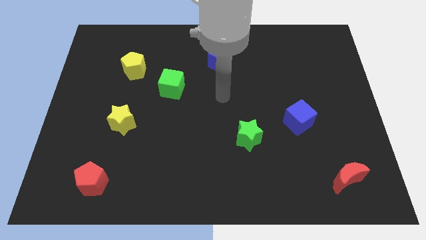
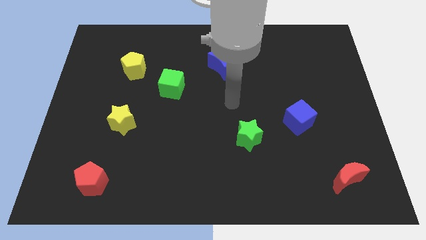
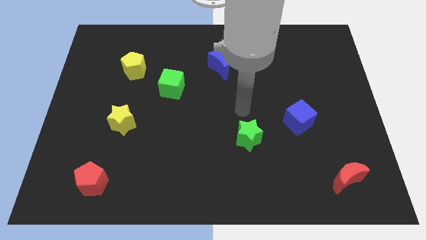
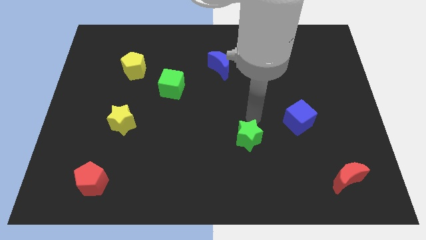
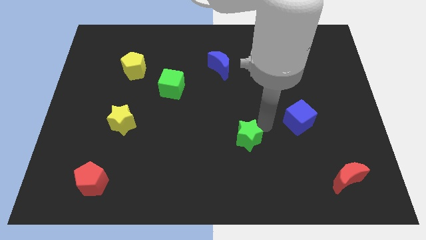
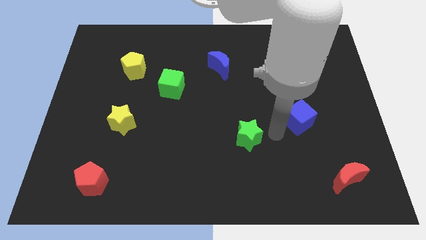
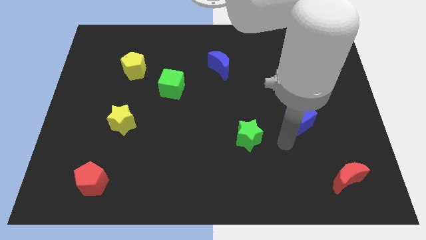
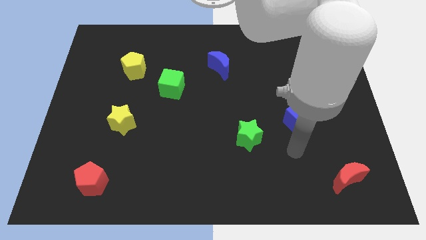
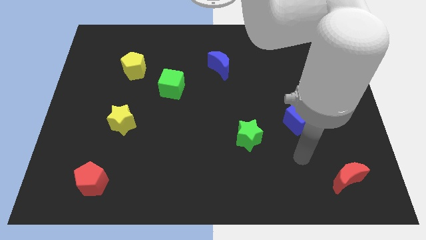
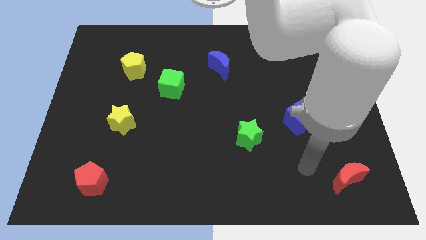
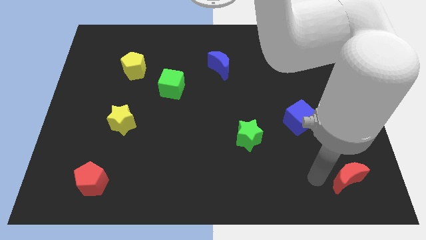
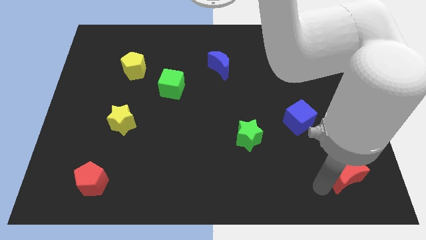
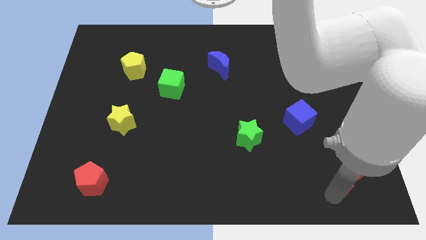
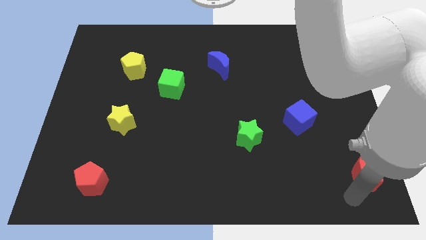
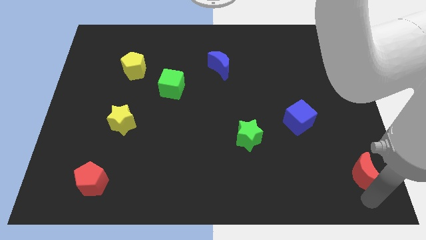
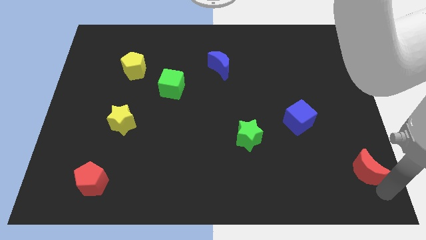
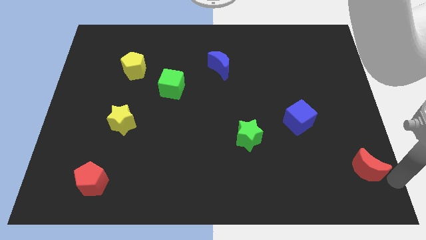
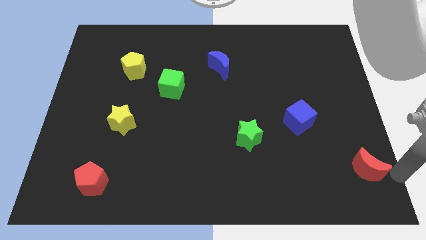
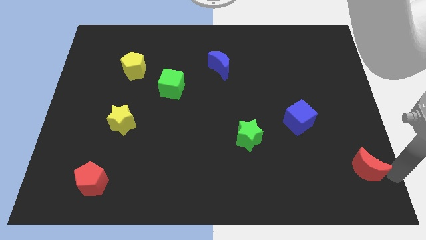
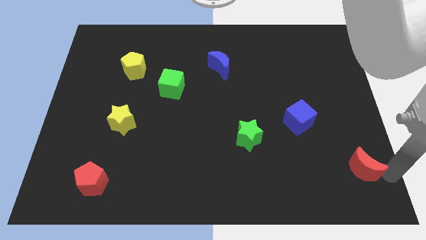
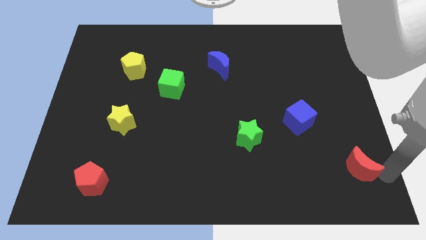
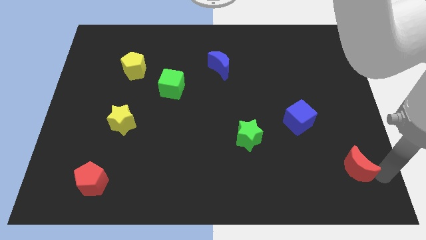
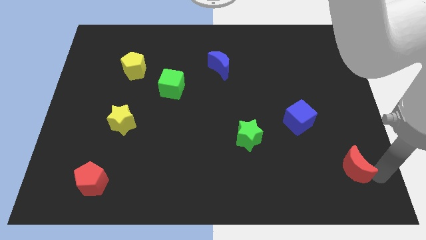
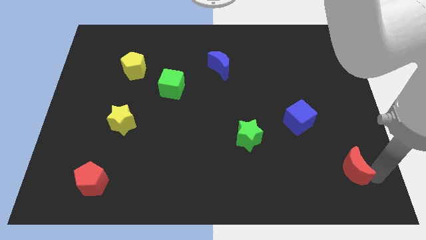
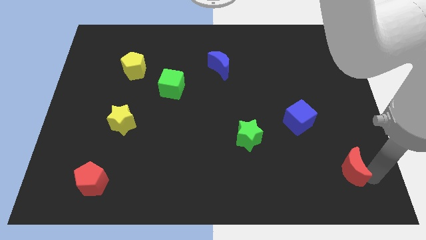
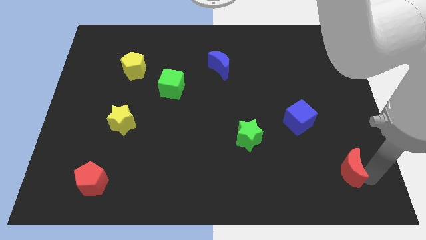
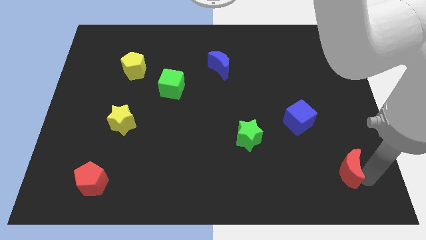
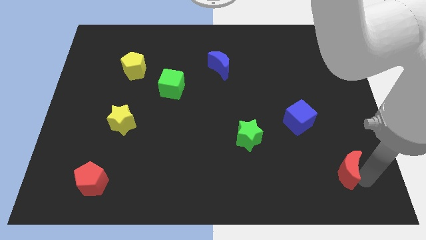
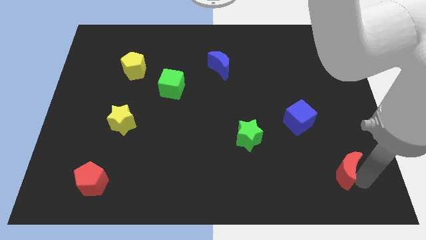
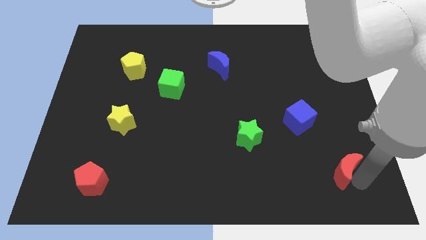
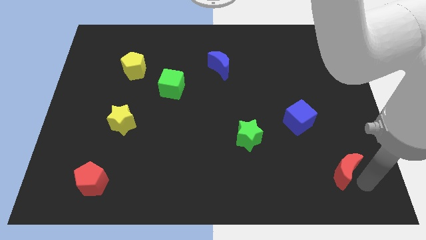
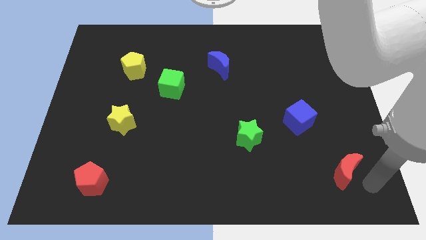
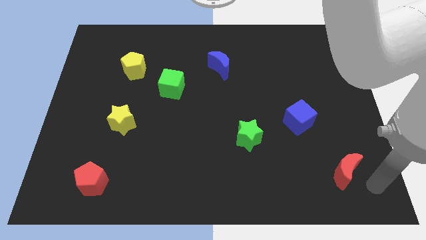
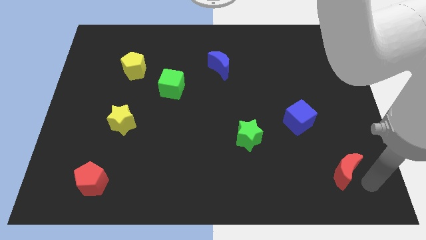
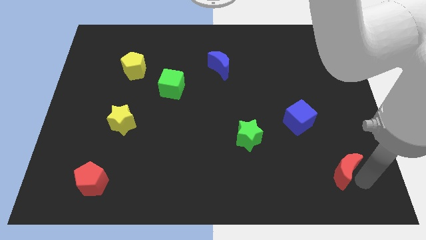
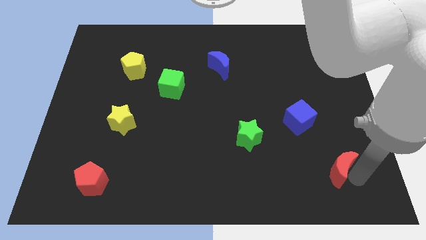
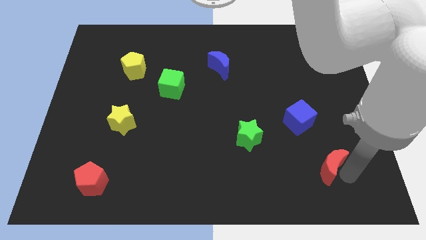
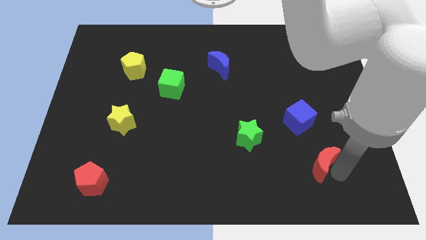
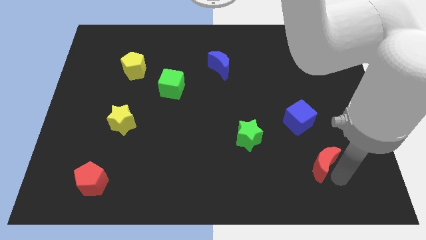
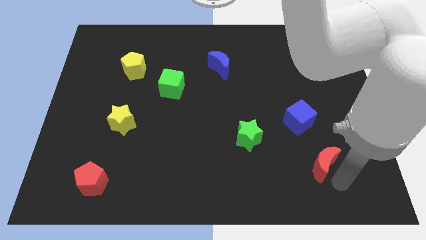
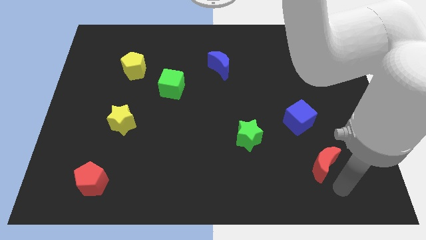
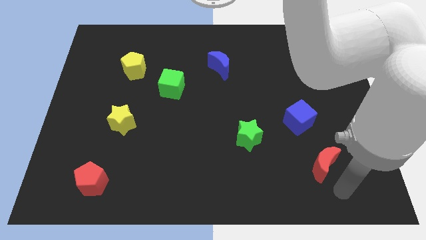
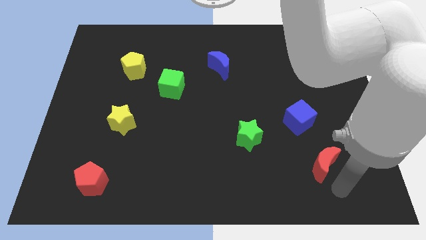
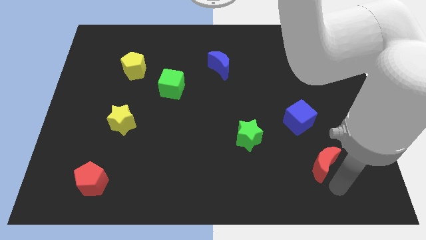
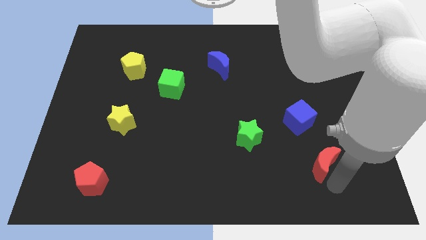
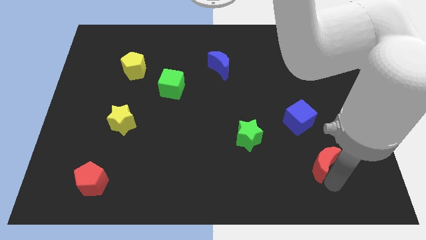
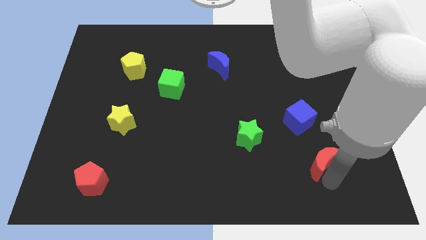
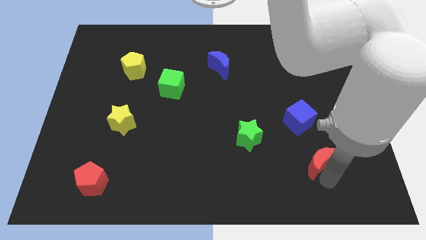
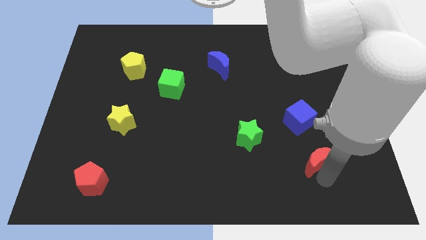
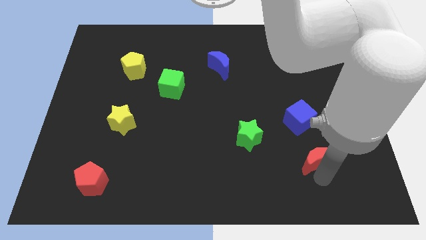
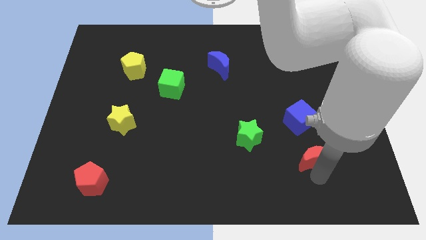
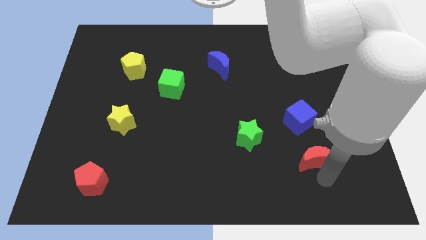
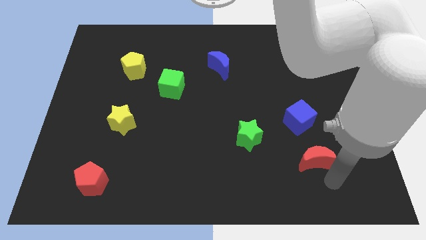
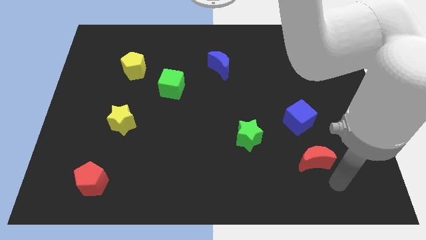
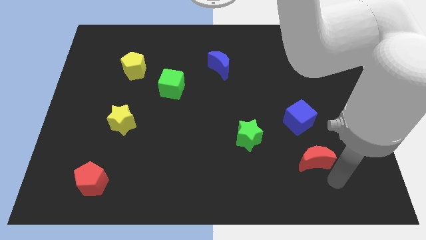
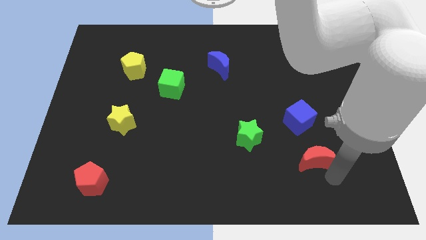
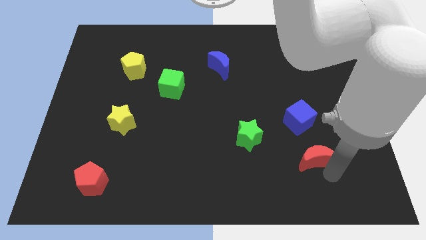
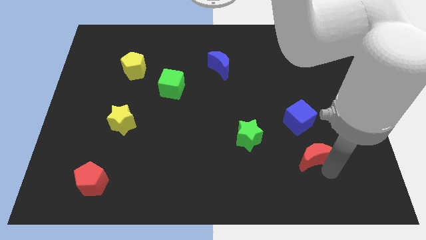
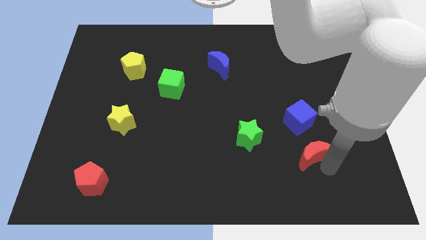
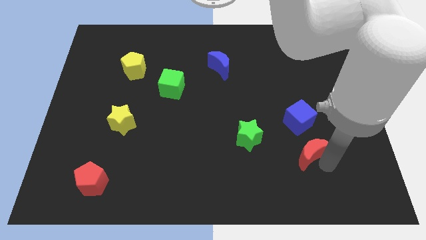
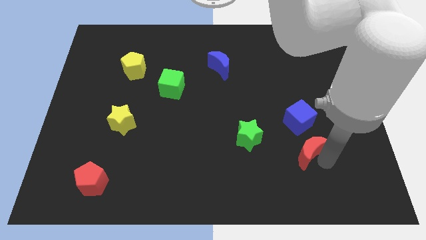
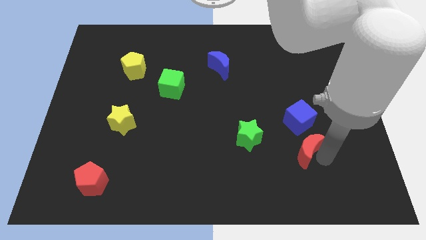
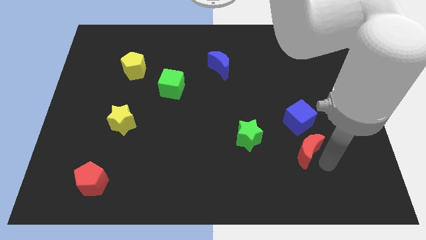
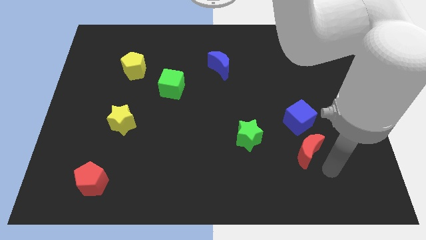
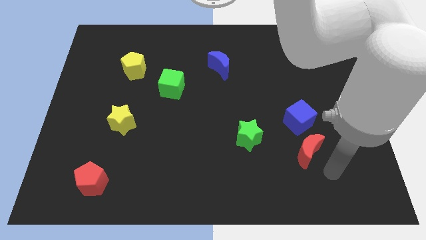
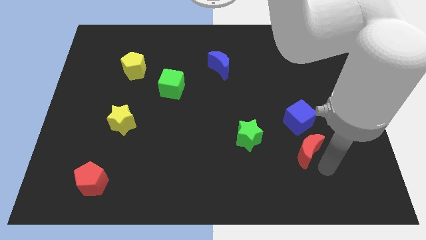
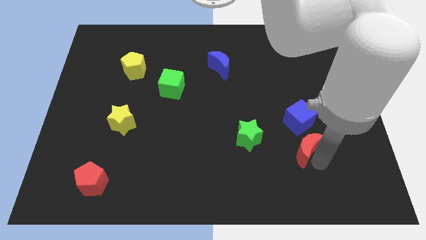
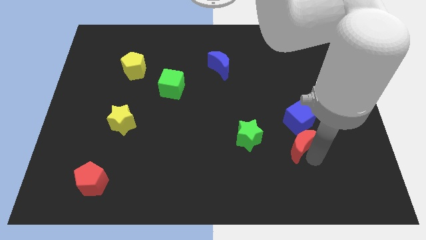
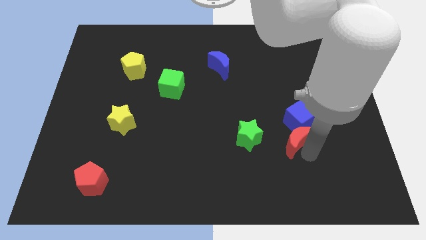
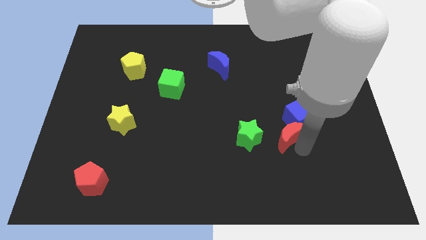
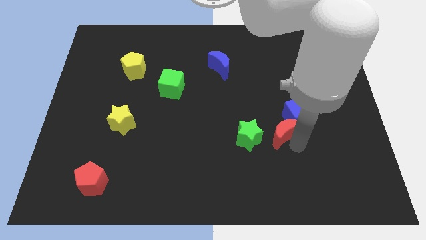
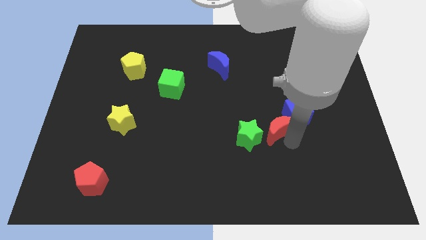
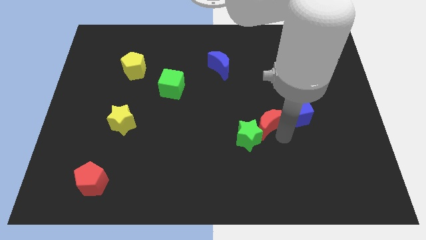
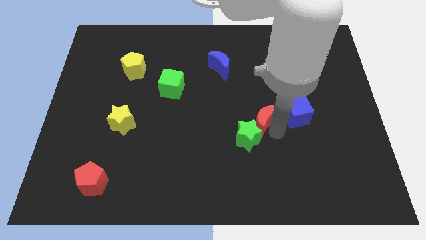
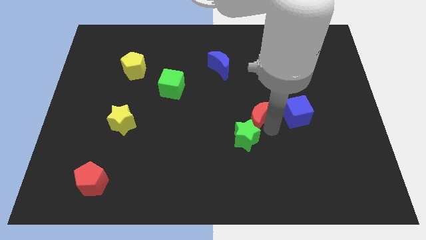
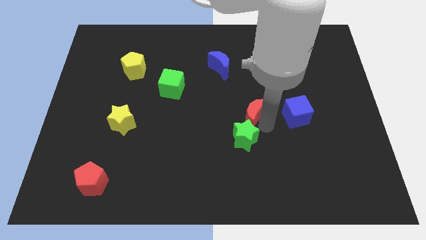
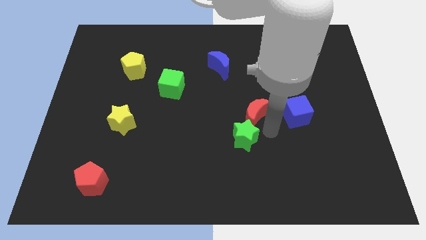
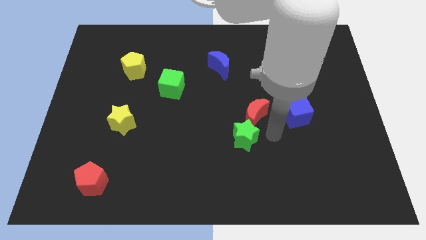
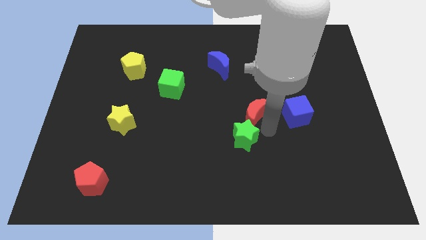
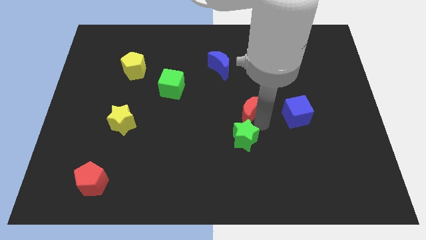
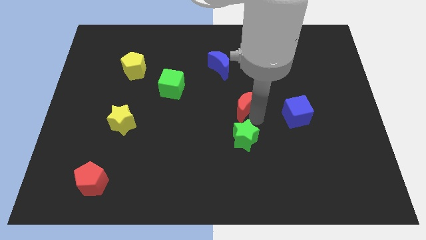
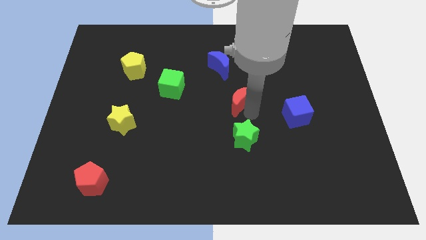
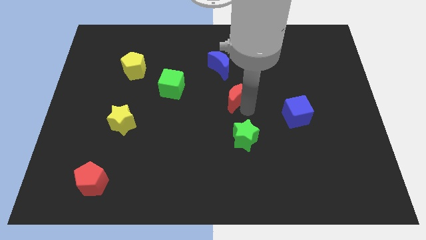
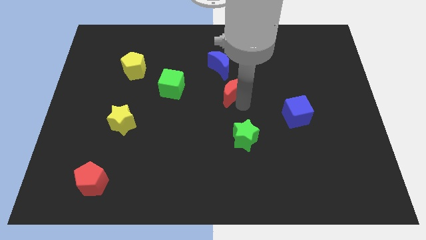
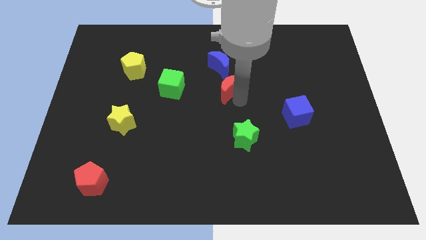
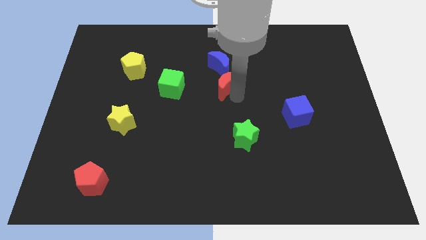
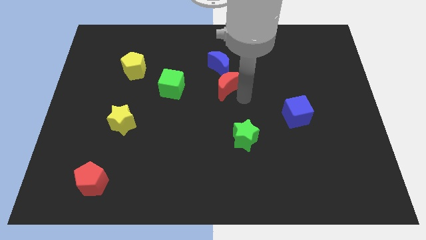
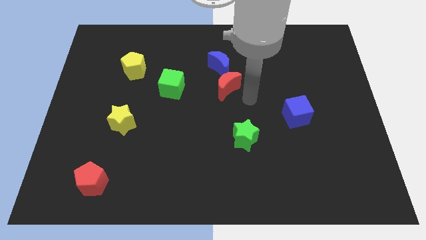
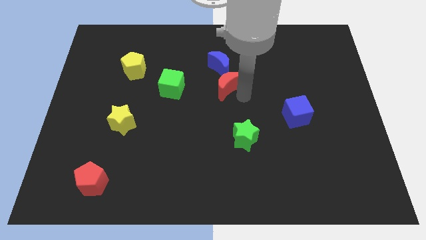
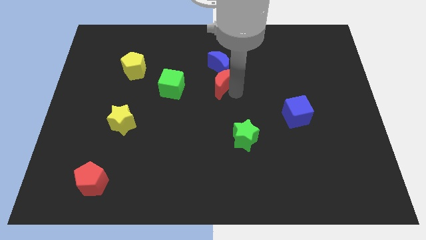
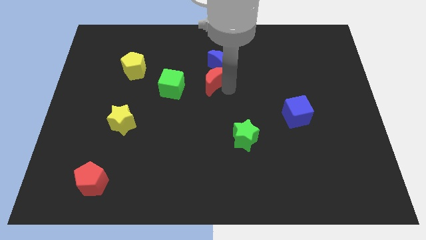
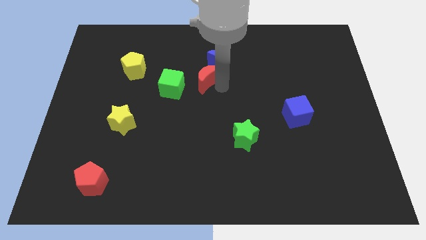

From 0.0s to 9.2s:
slide the red moon to the top right of the green cube
